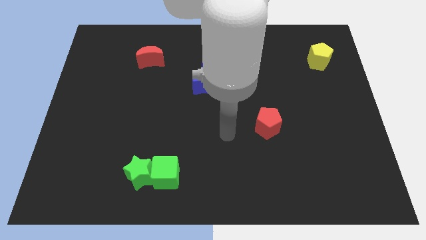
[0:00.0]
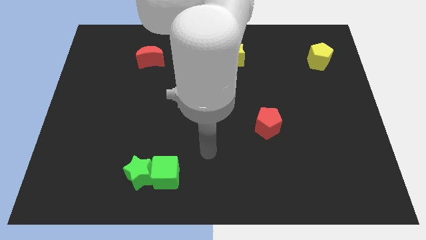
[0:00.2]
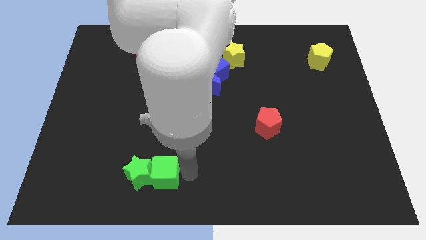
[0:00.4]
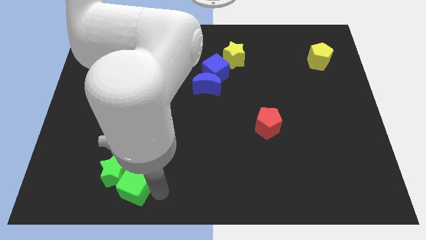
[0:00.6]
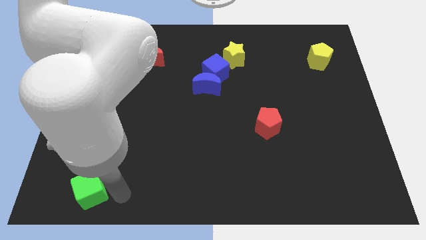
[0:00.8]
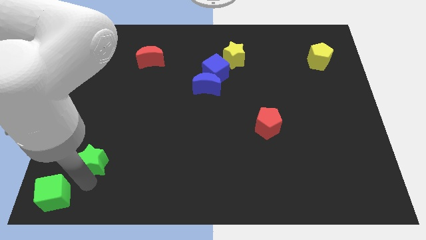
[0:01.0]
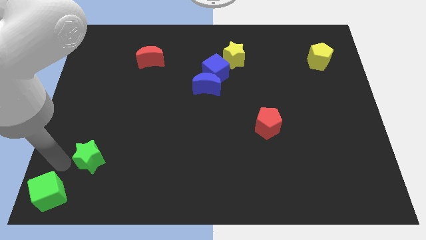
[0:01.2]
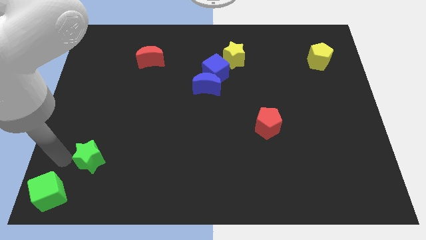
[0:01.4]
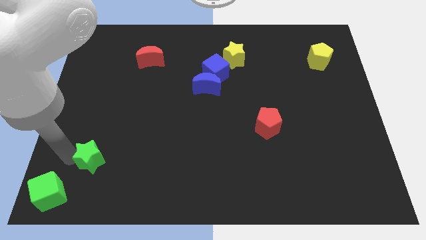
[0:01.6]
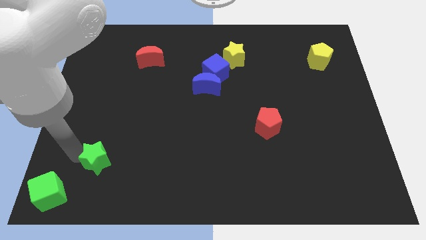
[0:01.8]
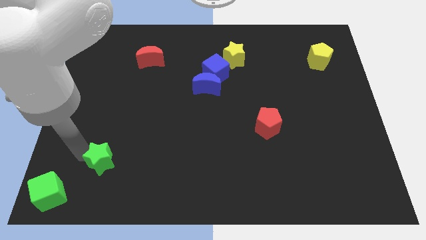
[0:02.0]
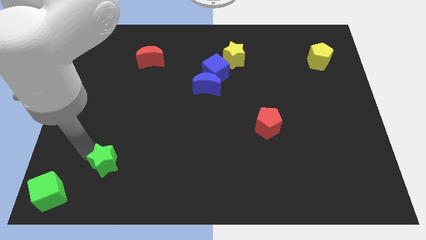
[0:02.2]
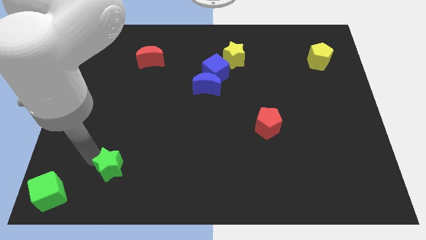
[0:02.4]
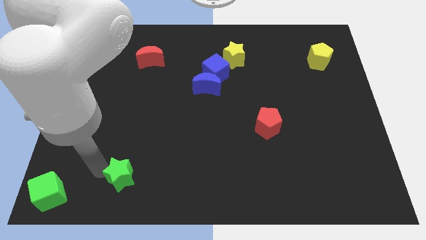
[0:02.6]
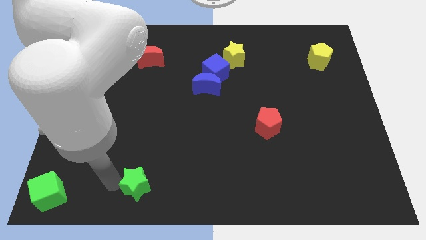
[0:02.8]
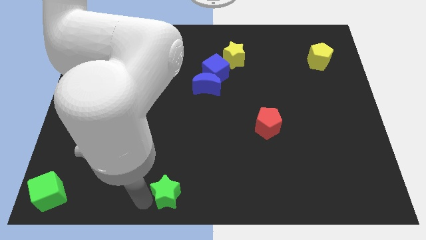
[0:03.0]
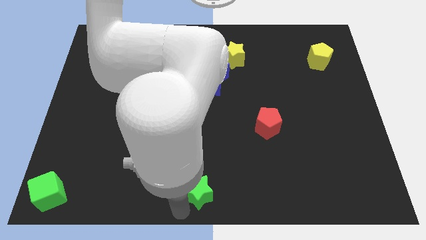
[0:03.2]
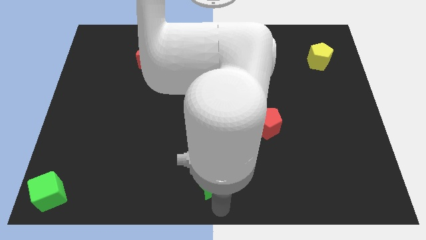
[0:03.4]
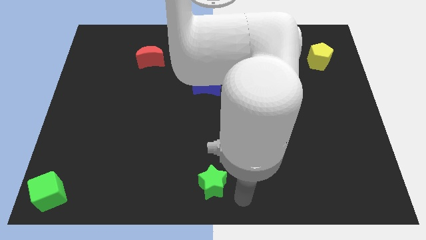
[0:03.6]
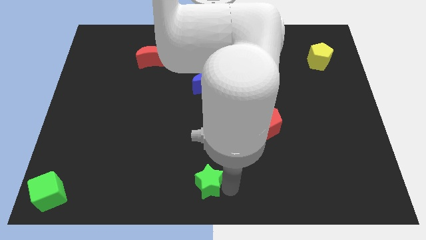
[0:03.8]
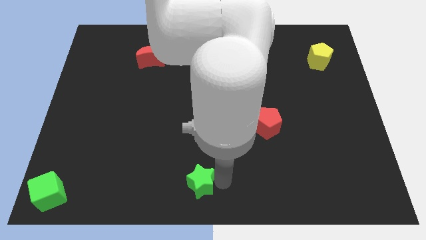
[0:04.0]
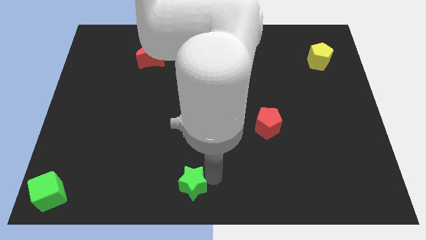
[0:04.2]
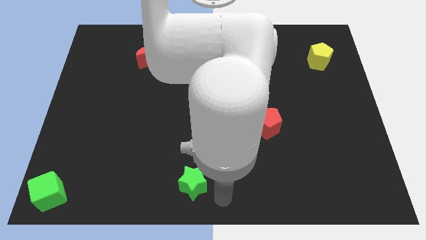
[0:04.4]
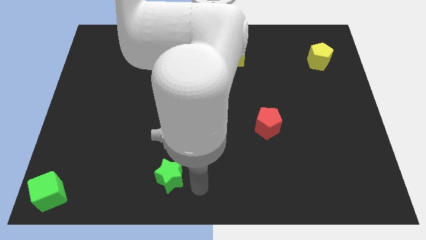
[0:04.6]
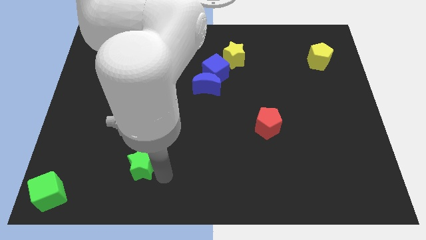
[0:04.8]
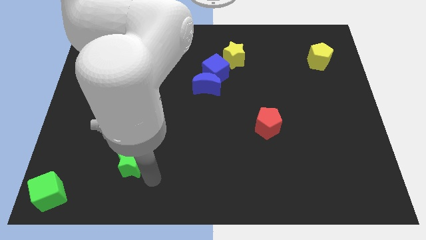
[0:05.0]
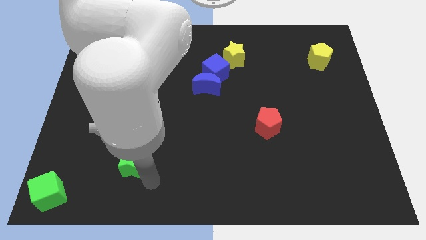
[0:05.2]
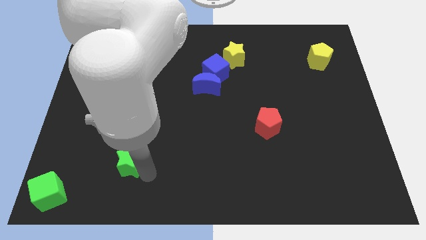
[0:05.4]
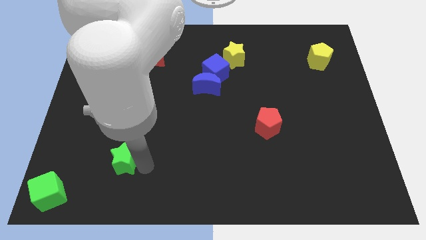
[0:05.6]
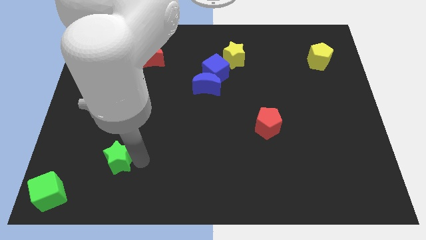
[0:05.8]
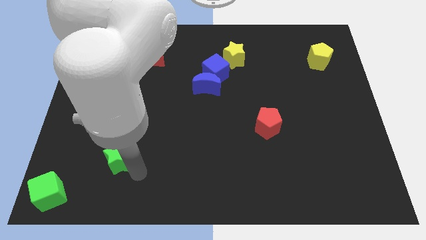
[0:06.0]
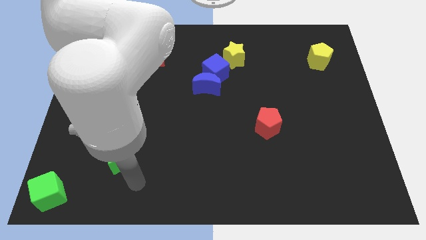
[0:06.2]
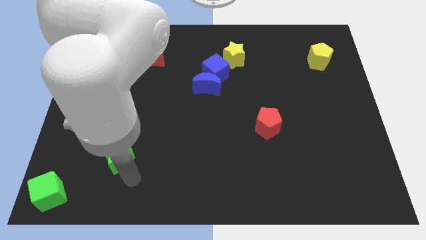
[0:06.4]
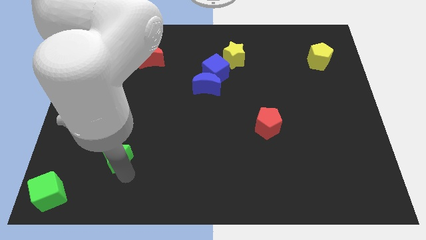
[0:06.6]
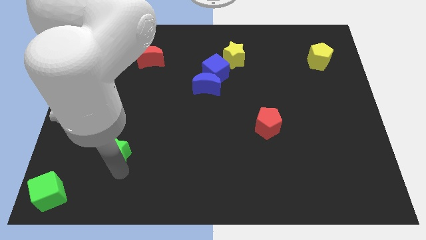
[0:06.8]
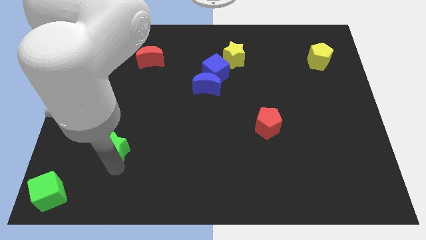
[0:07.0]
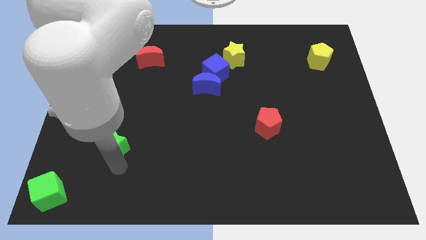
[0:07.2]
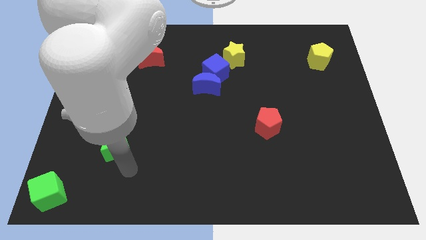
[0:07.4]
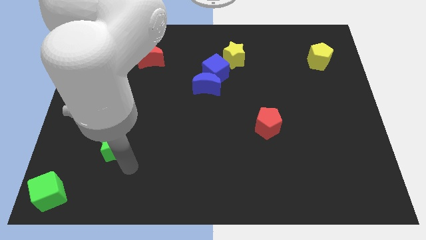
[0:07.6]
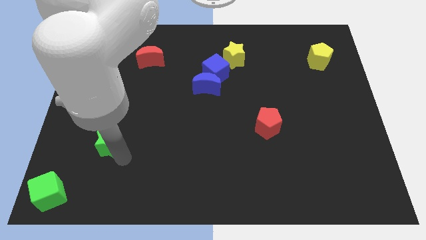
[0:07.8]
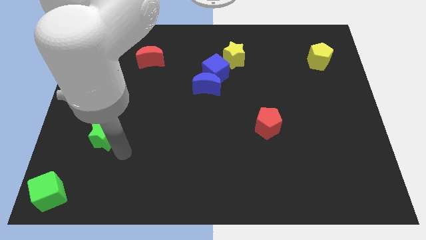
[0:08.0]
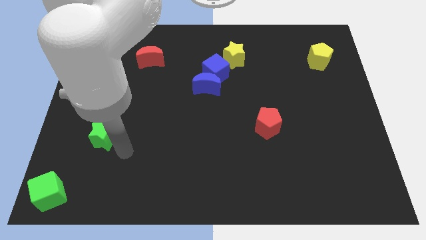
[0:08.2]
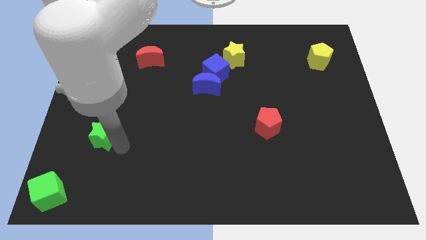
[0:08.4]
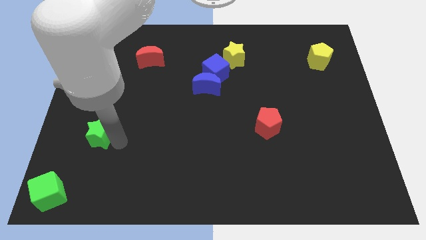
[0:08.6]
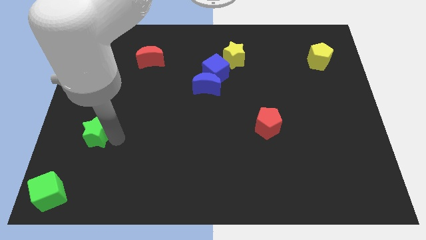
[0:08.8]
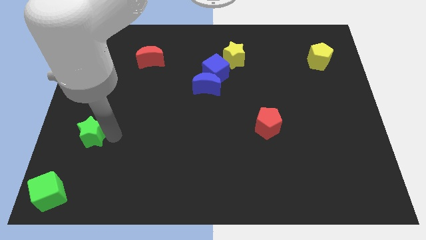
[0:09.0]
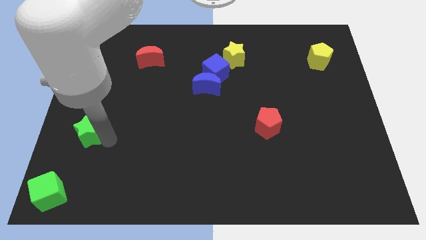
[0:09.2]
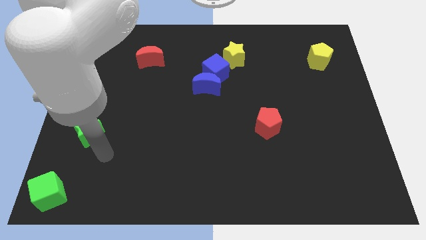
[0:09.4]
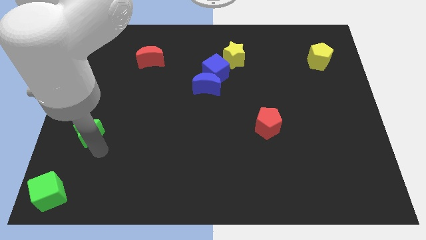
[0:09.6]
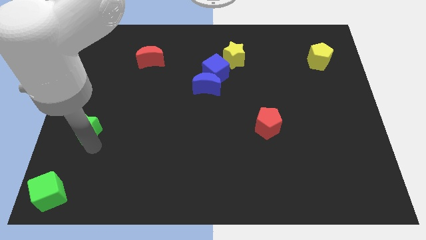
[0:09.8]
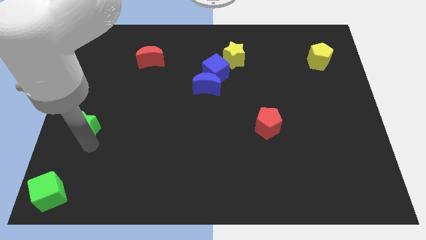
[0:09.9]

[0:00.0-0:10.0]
push the green star to the left side of the board

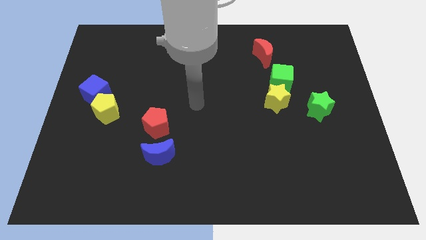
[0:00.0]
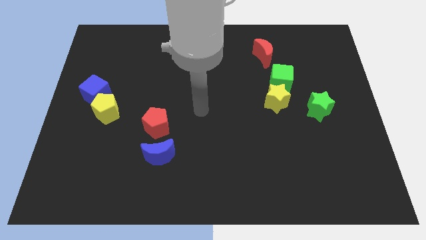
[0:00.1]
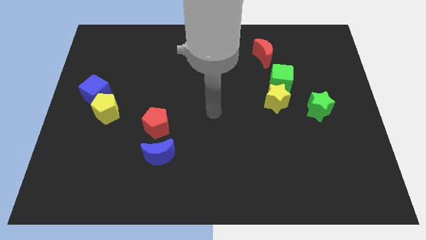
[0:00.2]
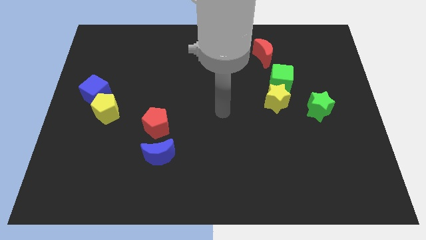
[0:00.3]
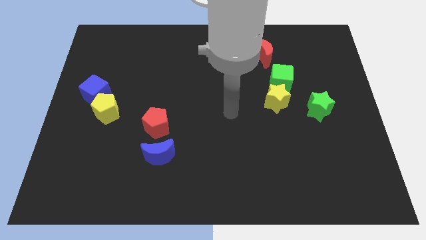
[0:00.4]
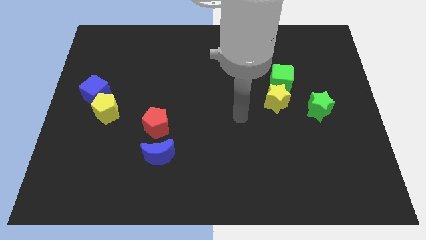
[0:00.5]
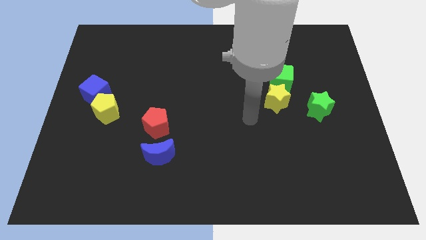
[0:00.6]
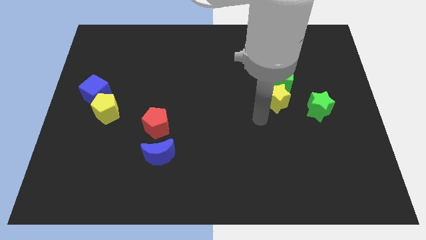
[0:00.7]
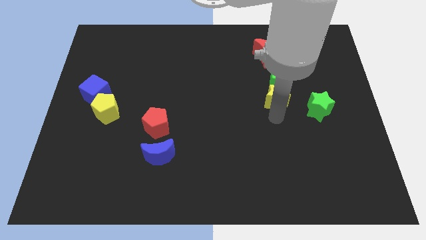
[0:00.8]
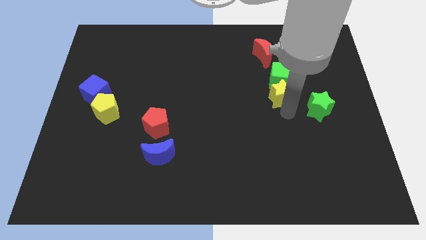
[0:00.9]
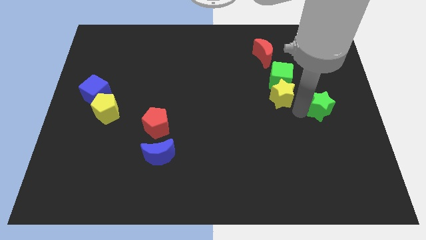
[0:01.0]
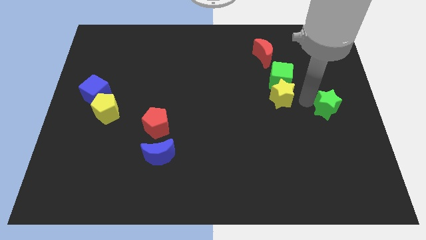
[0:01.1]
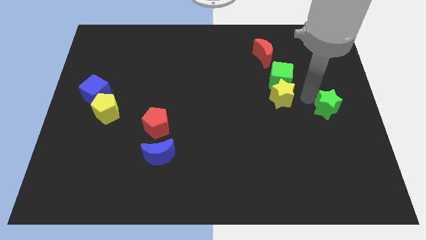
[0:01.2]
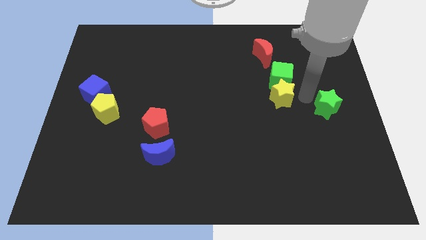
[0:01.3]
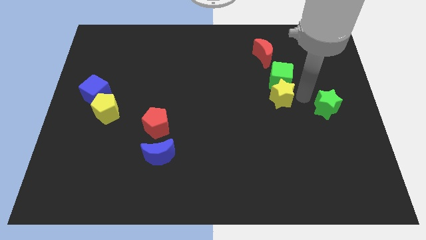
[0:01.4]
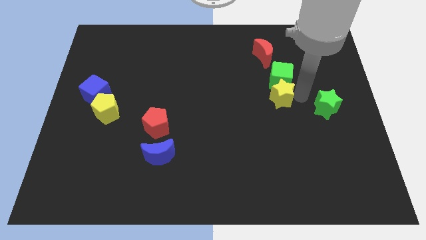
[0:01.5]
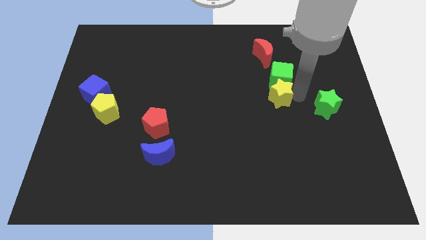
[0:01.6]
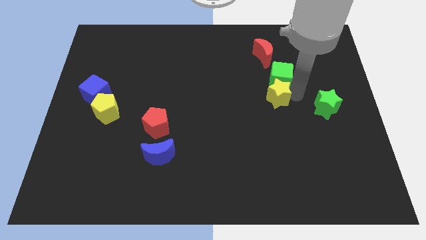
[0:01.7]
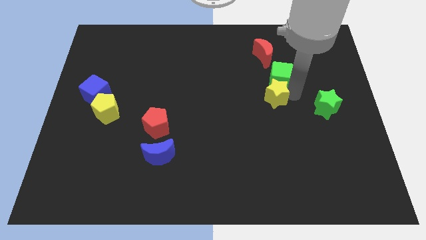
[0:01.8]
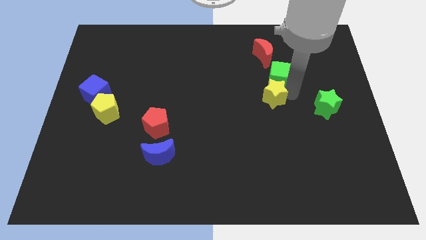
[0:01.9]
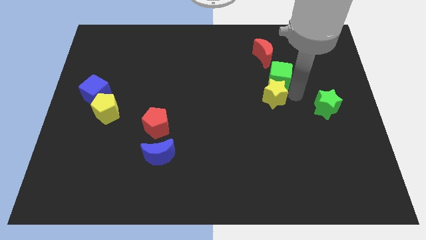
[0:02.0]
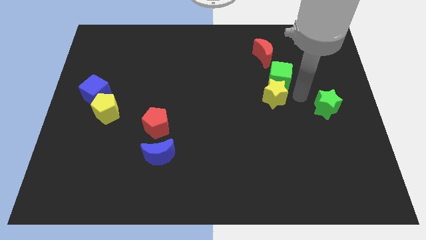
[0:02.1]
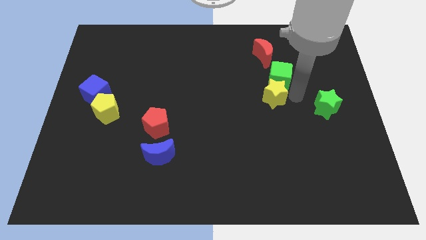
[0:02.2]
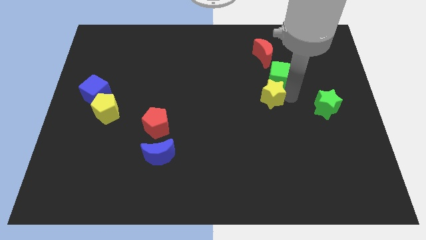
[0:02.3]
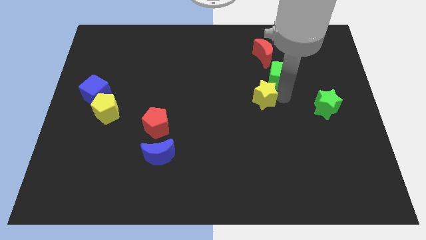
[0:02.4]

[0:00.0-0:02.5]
put the yellow star to the center
